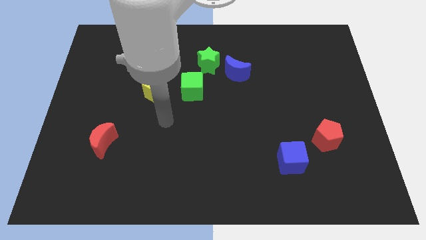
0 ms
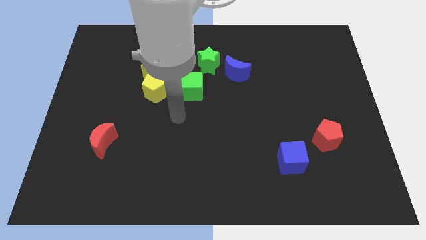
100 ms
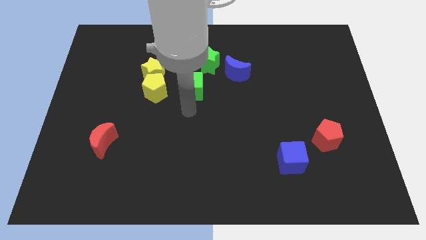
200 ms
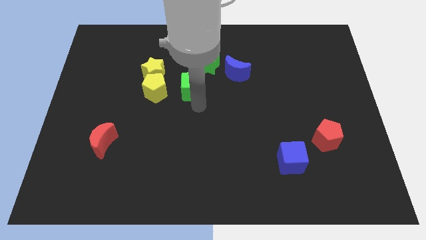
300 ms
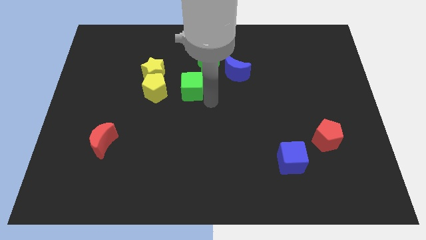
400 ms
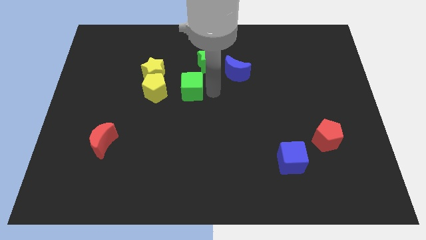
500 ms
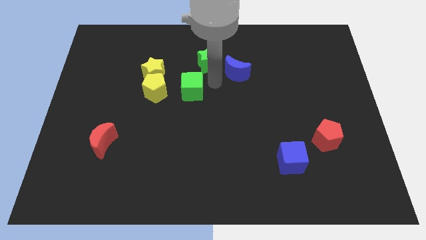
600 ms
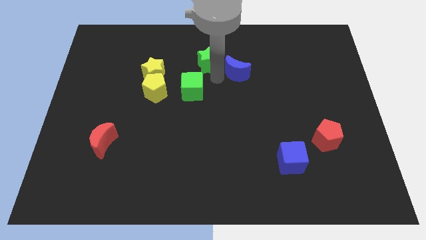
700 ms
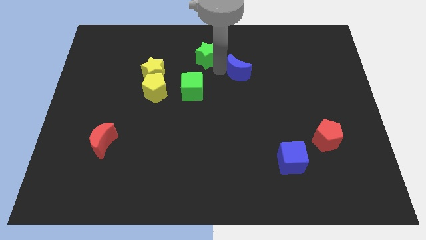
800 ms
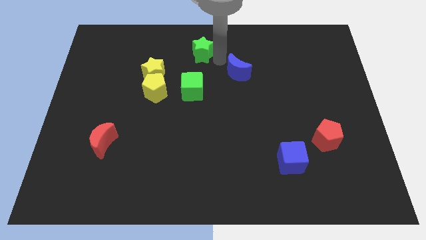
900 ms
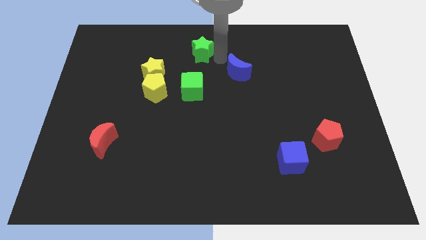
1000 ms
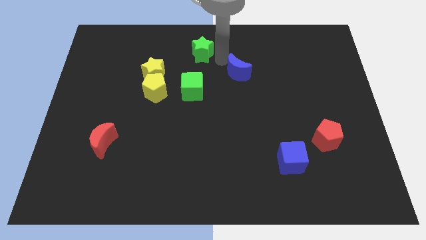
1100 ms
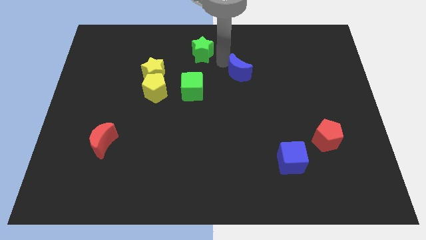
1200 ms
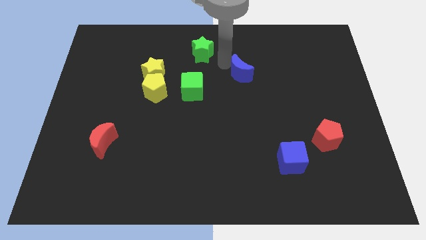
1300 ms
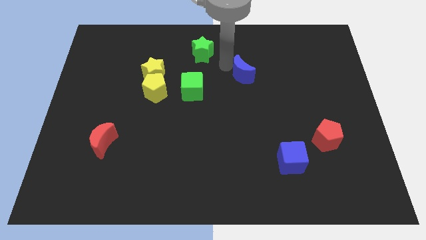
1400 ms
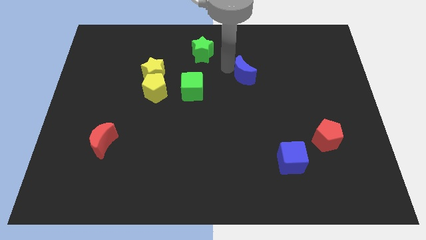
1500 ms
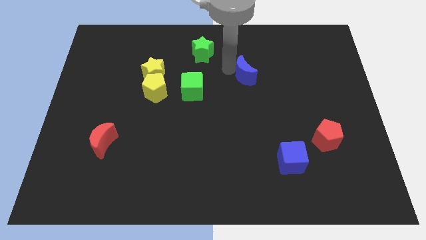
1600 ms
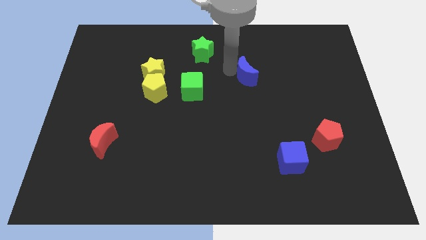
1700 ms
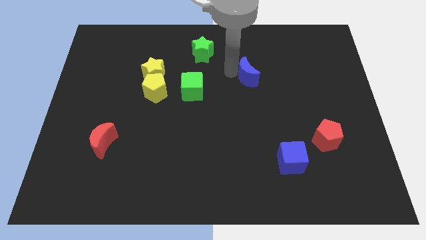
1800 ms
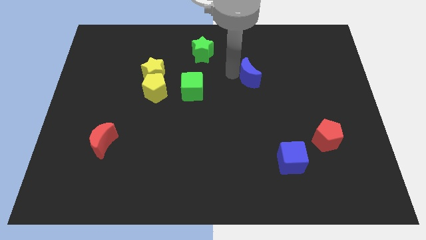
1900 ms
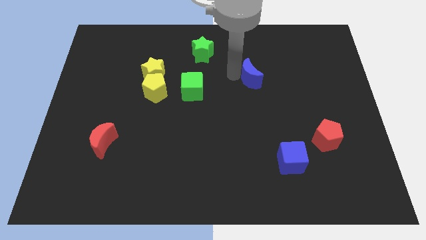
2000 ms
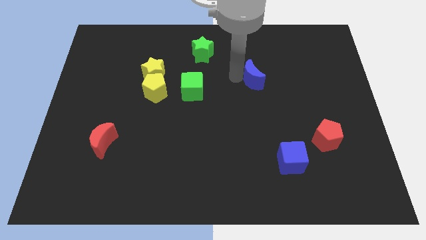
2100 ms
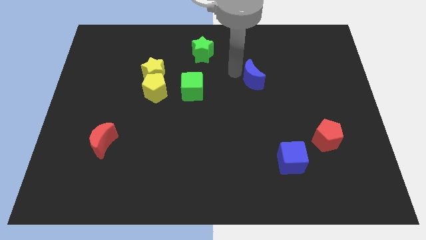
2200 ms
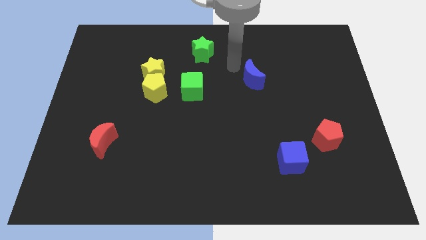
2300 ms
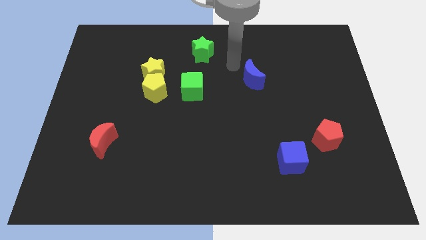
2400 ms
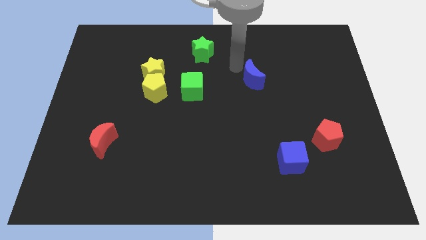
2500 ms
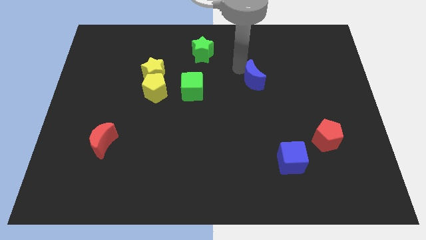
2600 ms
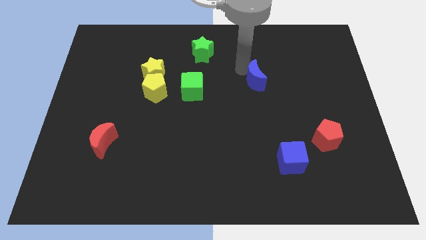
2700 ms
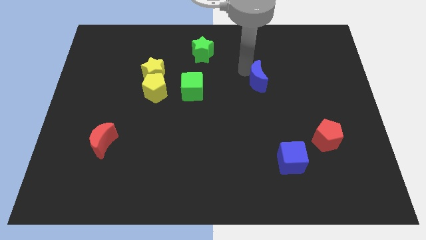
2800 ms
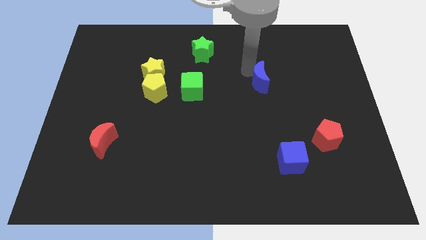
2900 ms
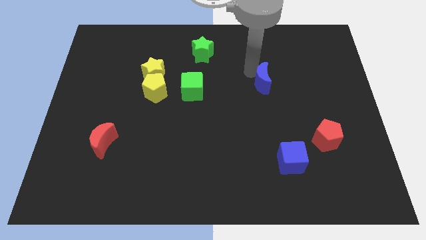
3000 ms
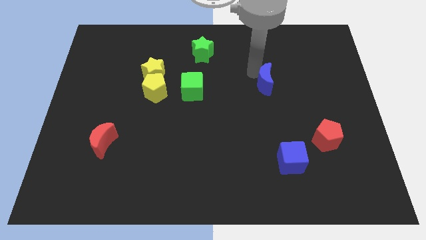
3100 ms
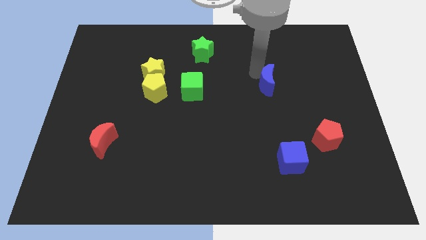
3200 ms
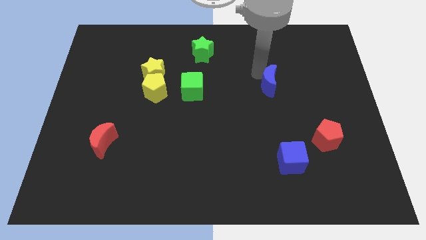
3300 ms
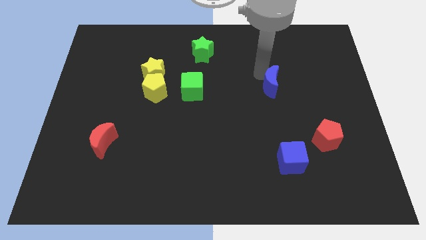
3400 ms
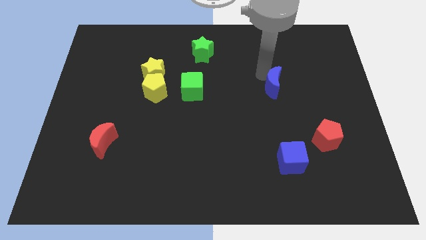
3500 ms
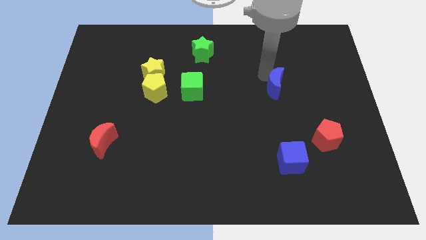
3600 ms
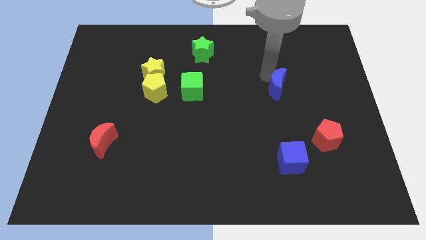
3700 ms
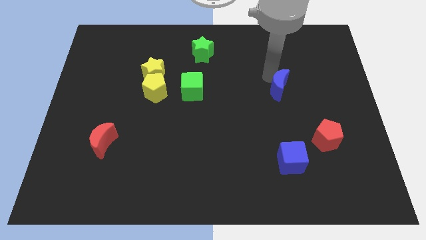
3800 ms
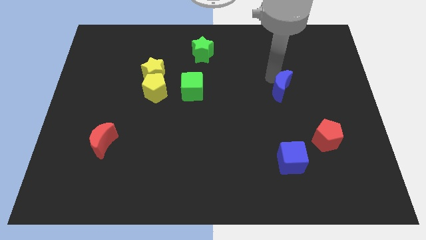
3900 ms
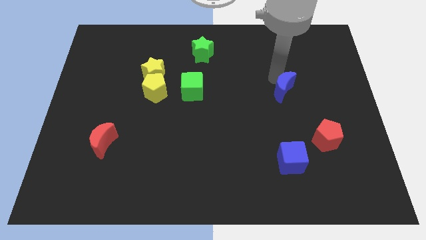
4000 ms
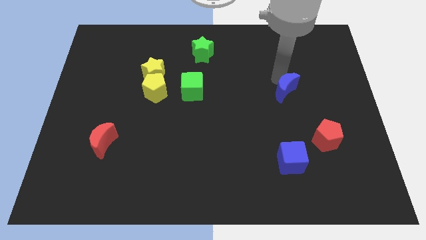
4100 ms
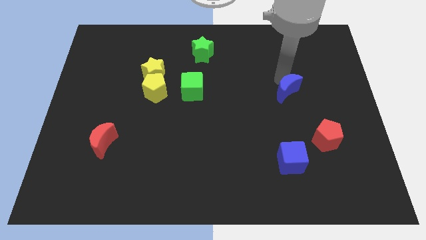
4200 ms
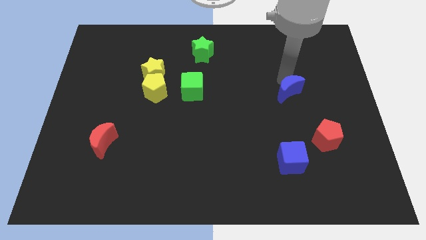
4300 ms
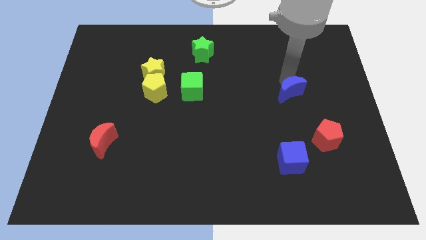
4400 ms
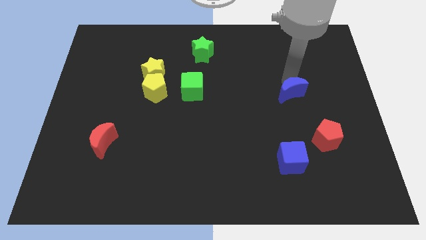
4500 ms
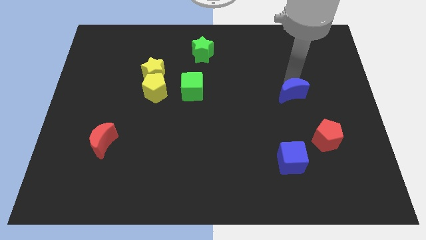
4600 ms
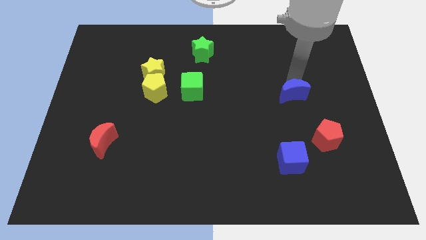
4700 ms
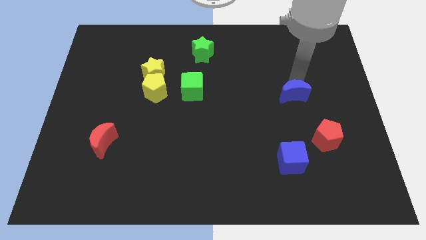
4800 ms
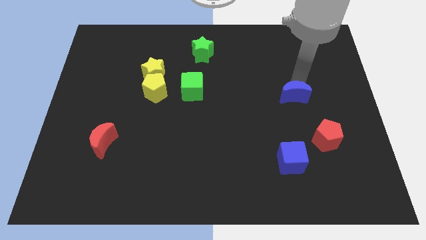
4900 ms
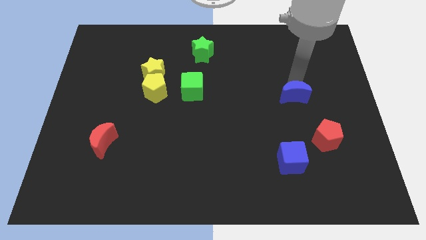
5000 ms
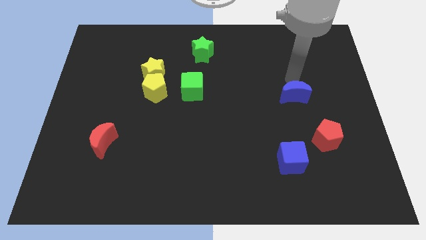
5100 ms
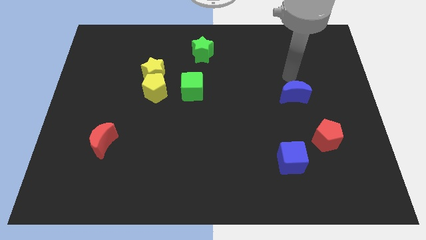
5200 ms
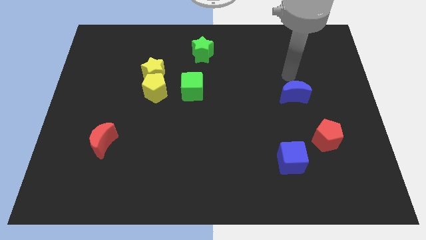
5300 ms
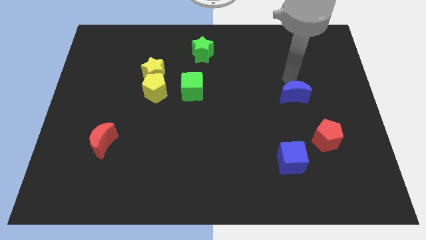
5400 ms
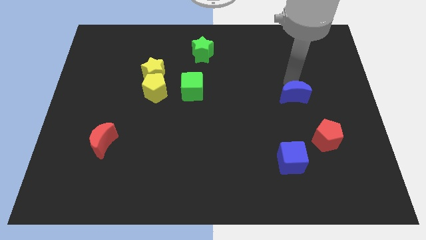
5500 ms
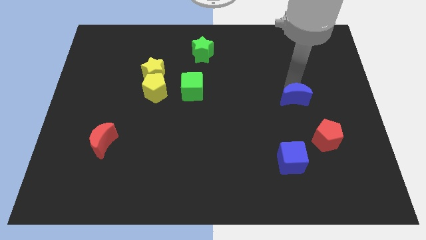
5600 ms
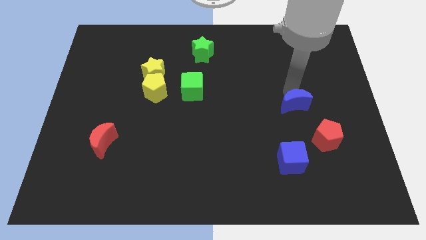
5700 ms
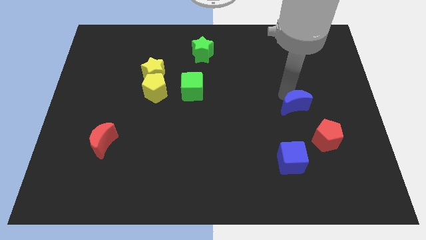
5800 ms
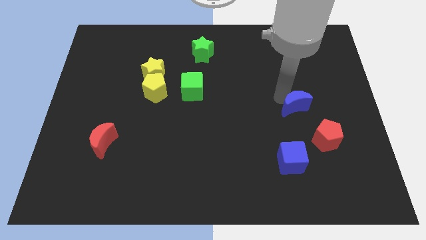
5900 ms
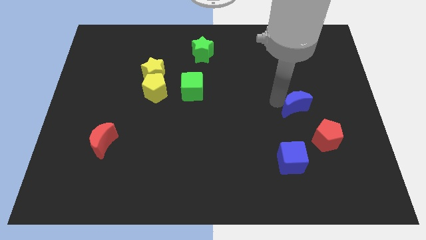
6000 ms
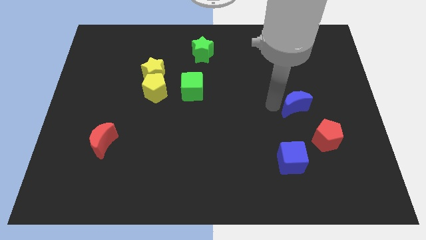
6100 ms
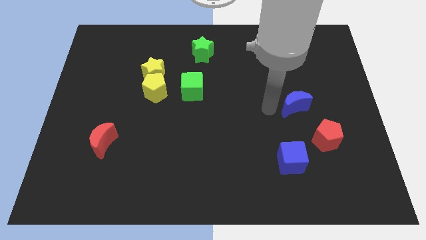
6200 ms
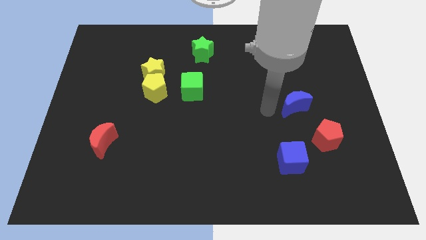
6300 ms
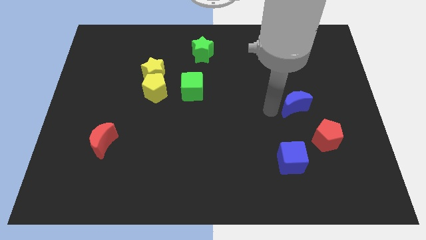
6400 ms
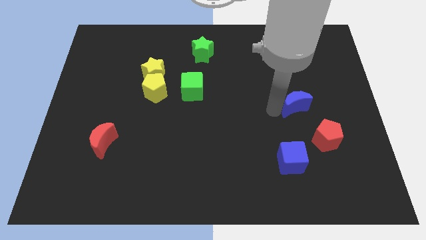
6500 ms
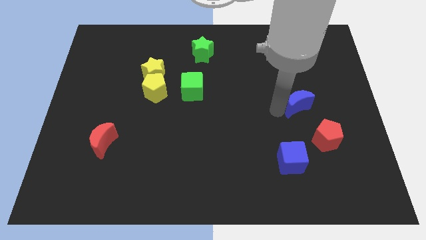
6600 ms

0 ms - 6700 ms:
move the blue moon above the red pentagon
